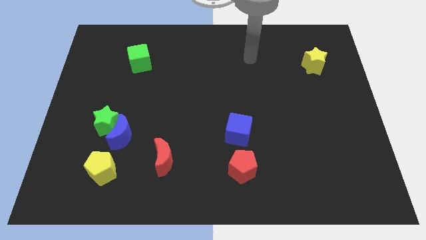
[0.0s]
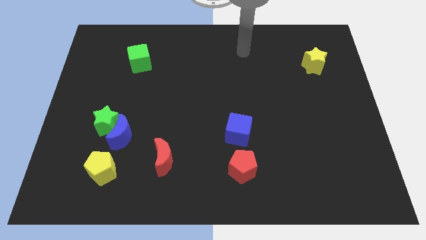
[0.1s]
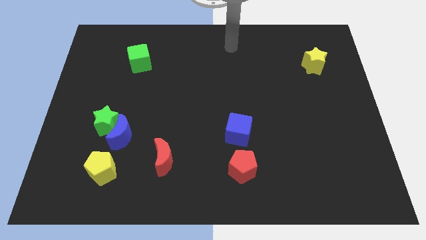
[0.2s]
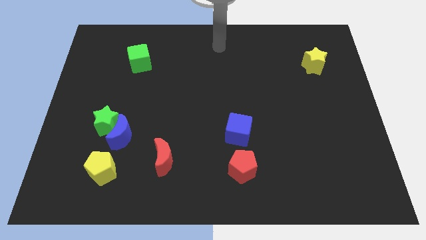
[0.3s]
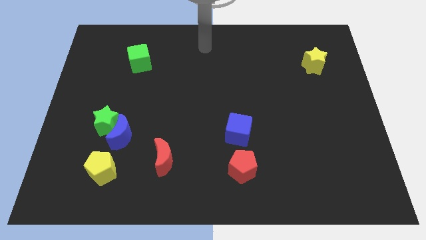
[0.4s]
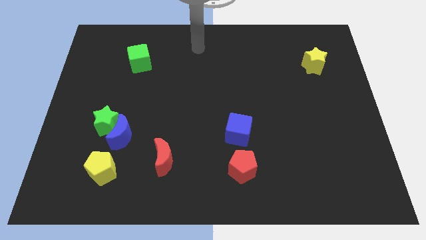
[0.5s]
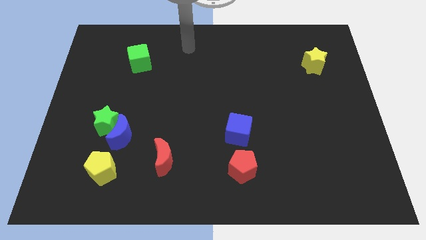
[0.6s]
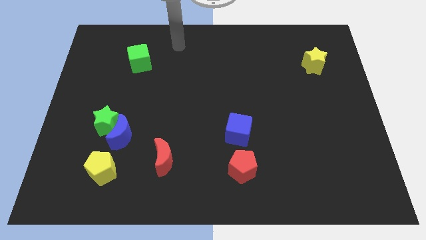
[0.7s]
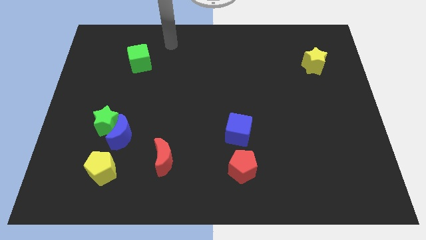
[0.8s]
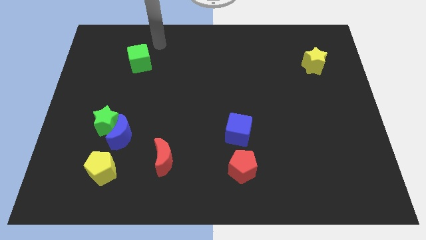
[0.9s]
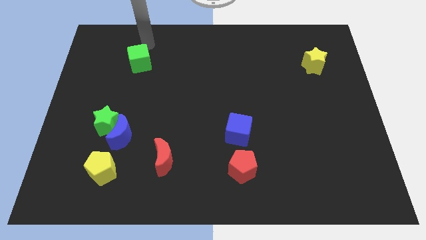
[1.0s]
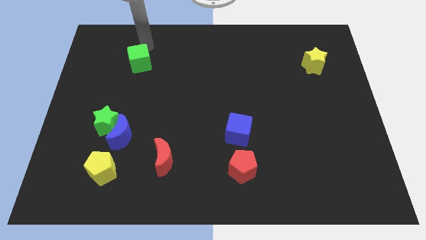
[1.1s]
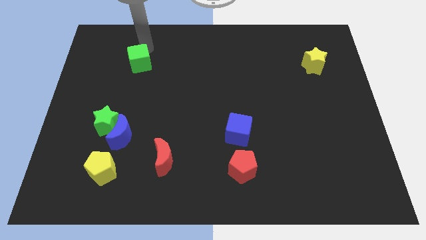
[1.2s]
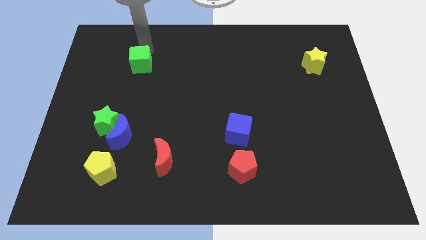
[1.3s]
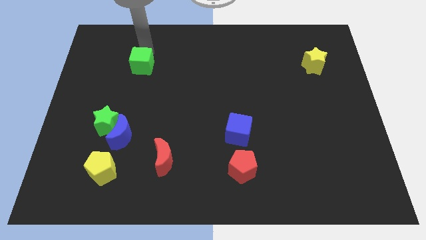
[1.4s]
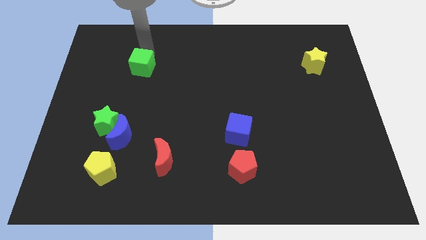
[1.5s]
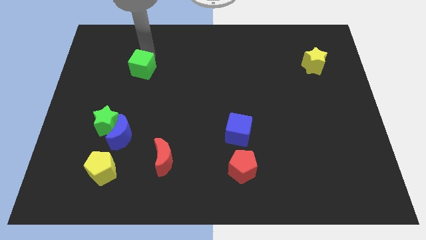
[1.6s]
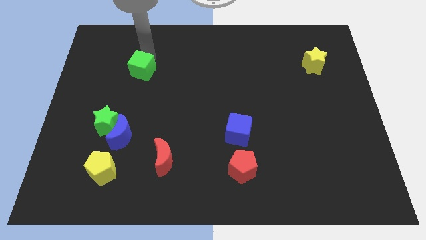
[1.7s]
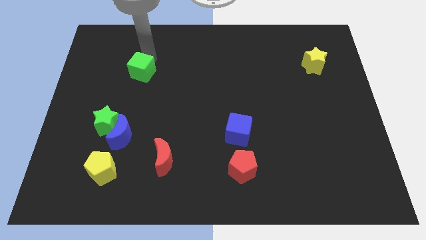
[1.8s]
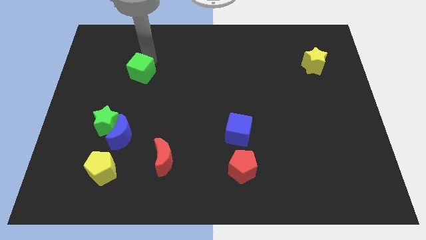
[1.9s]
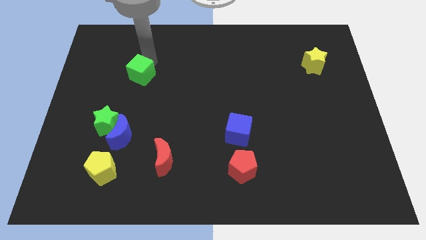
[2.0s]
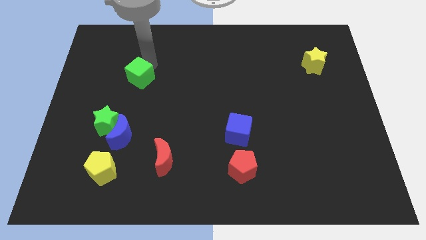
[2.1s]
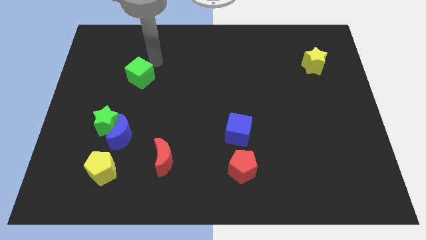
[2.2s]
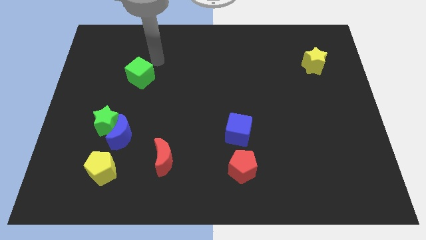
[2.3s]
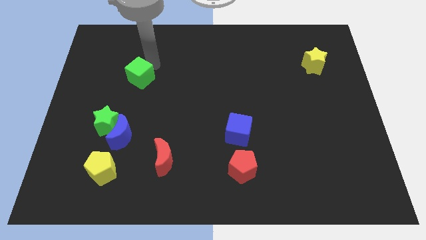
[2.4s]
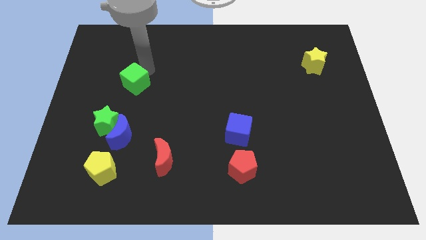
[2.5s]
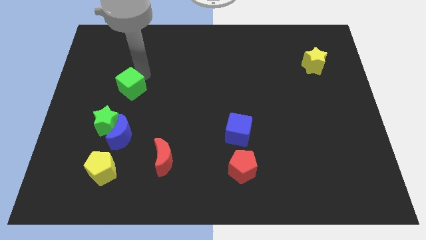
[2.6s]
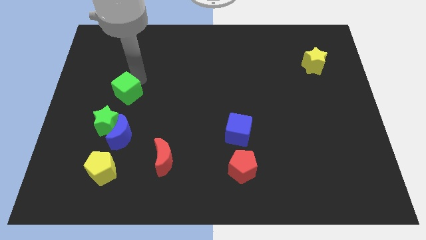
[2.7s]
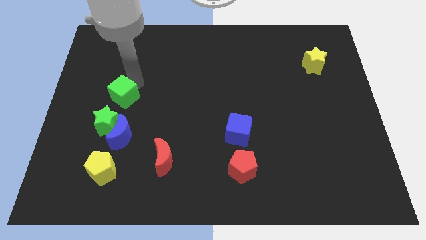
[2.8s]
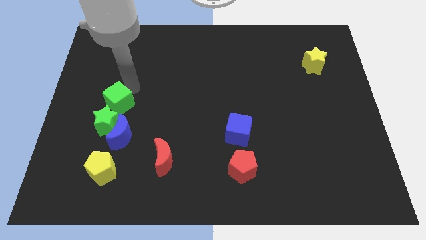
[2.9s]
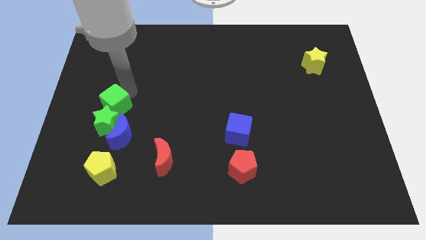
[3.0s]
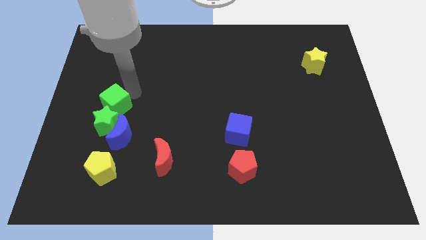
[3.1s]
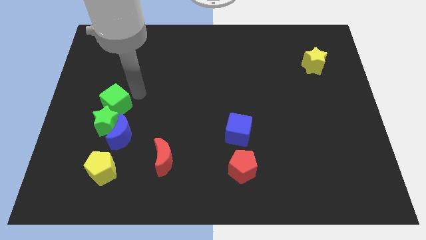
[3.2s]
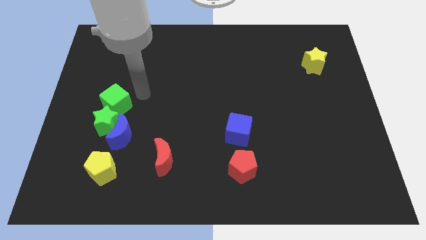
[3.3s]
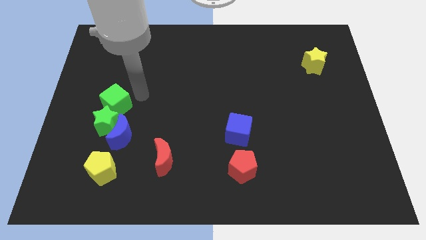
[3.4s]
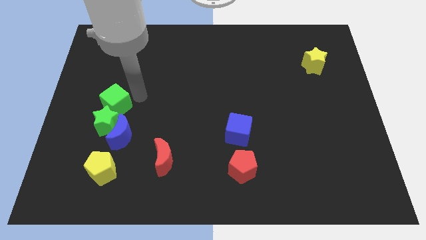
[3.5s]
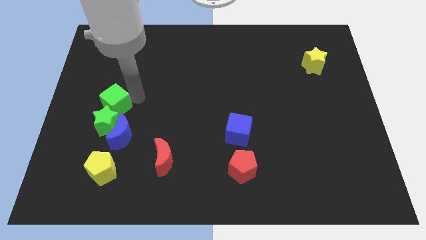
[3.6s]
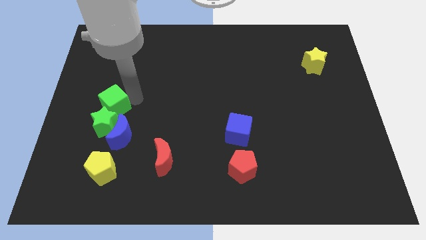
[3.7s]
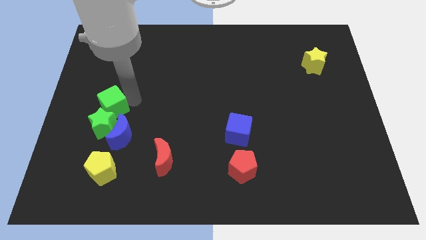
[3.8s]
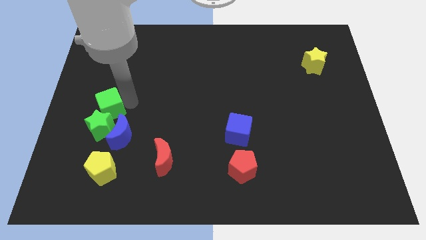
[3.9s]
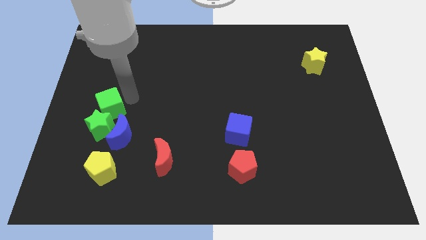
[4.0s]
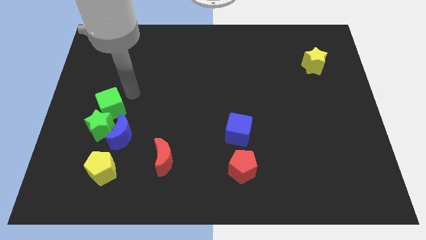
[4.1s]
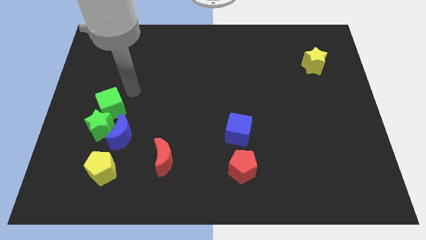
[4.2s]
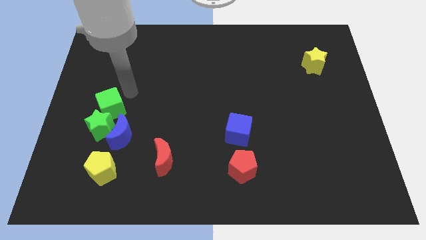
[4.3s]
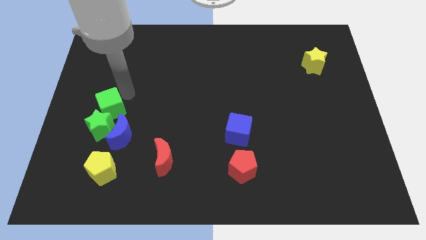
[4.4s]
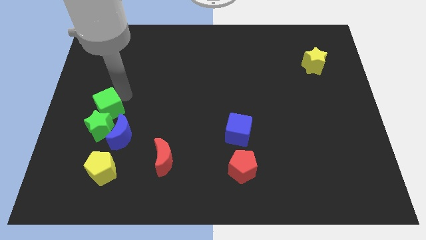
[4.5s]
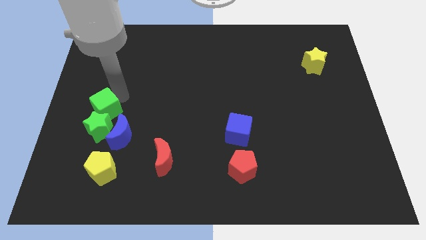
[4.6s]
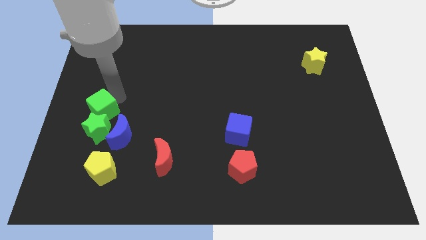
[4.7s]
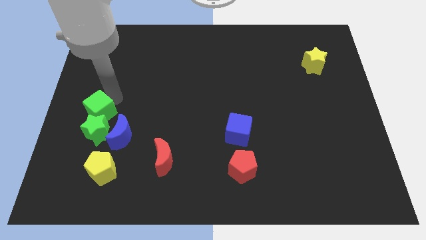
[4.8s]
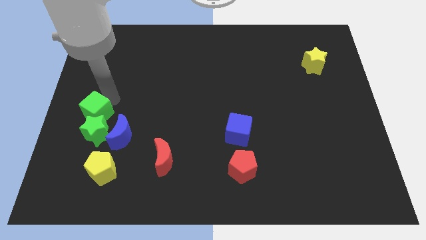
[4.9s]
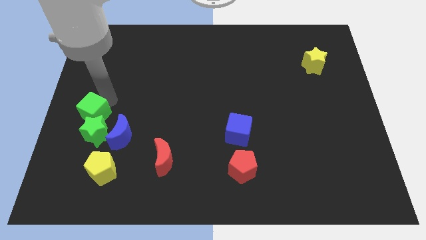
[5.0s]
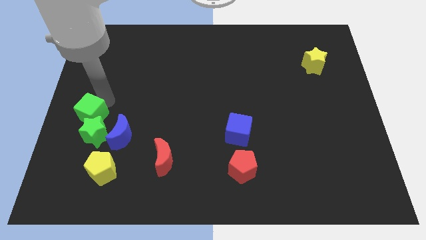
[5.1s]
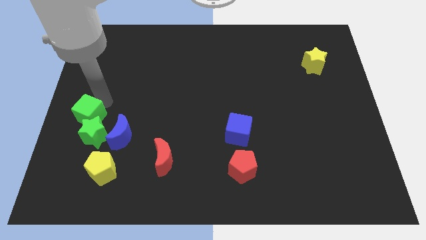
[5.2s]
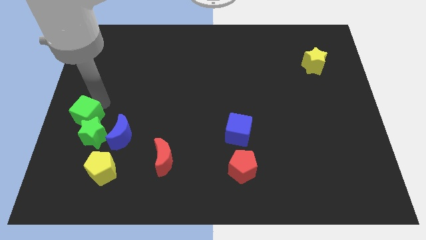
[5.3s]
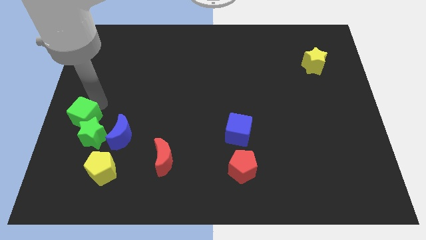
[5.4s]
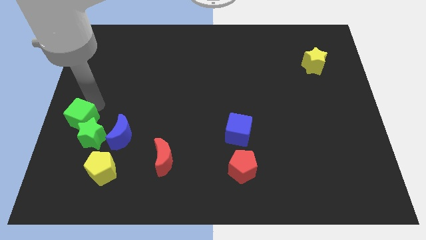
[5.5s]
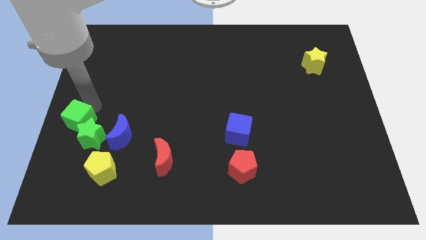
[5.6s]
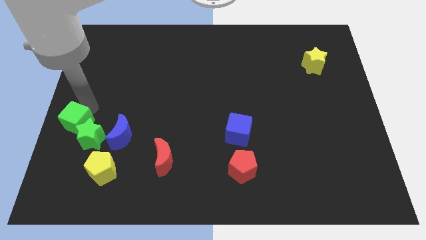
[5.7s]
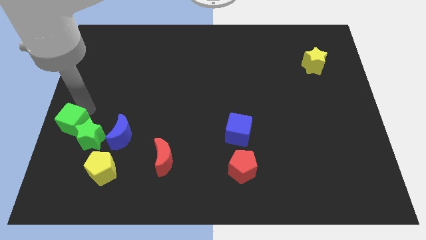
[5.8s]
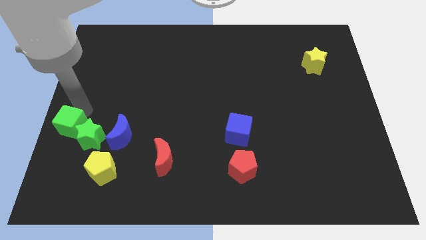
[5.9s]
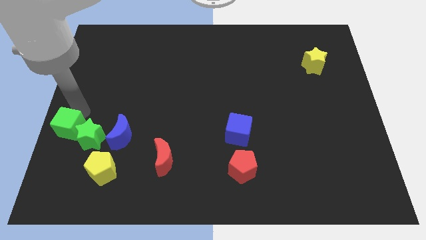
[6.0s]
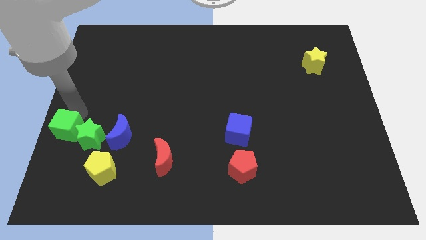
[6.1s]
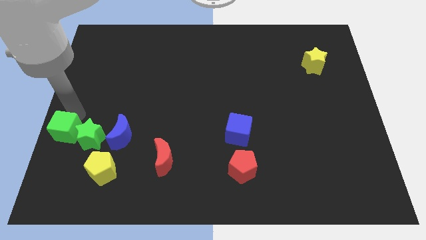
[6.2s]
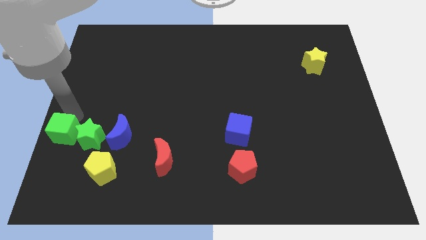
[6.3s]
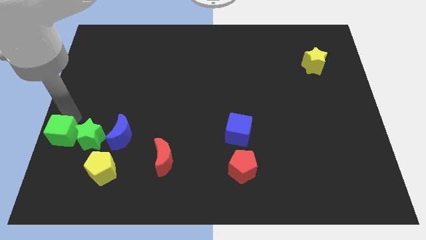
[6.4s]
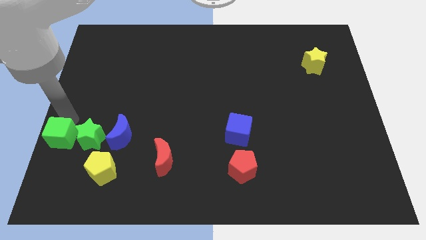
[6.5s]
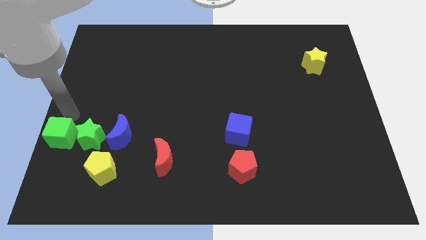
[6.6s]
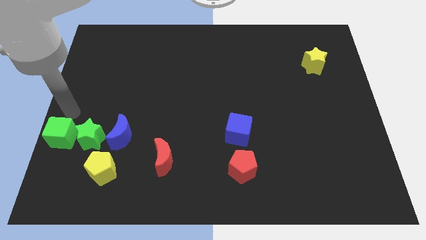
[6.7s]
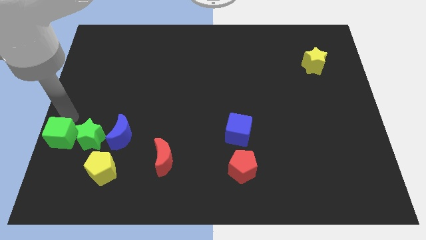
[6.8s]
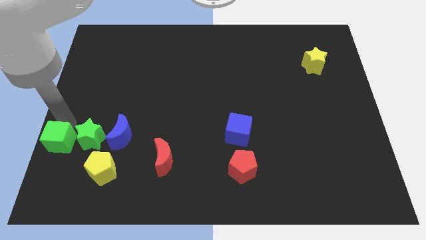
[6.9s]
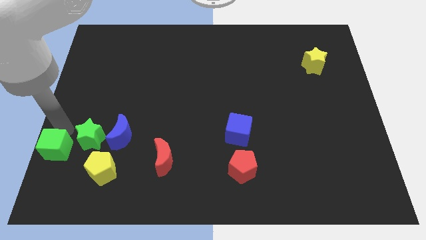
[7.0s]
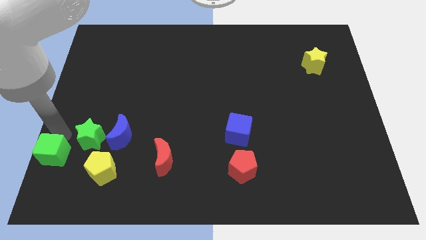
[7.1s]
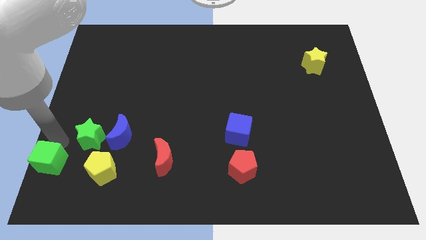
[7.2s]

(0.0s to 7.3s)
put the green cube to the bottom left of the board
